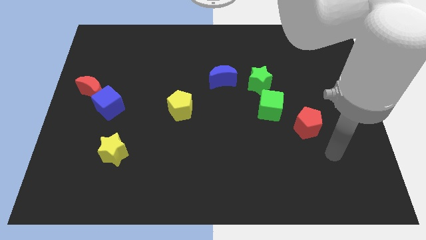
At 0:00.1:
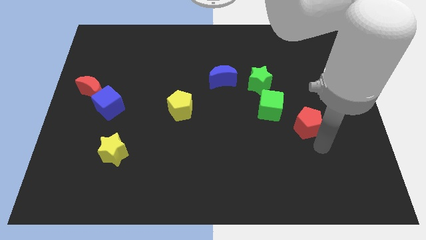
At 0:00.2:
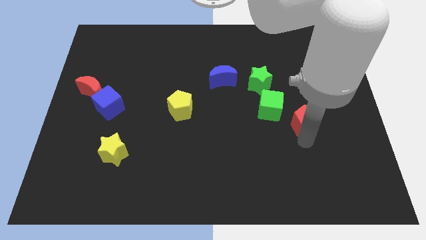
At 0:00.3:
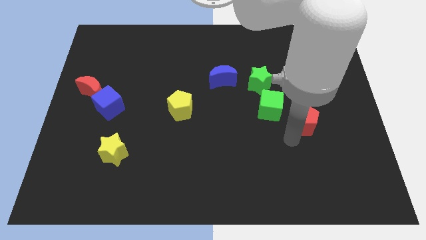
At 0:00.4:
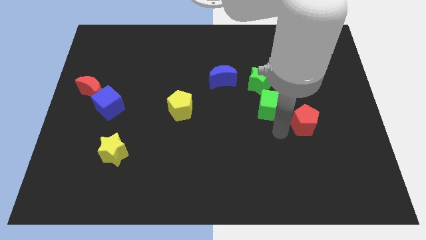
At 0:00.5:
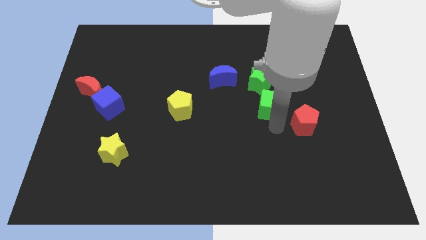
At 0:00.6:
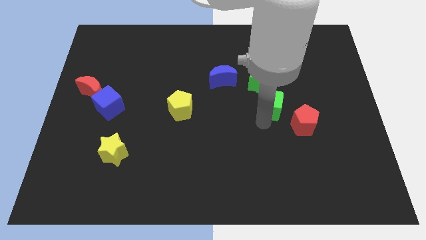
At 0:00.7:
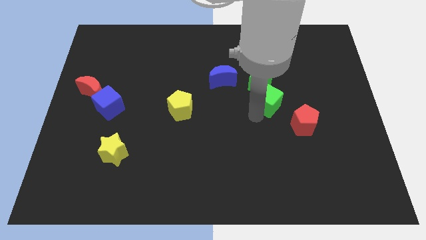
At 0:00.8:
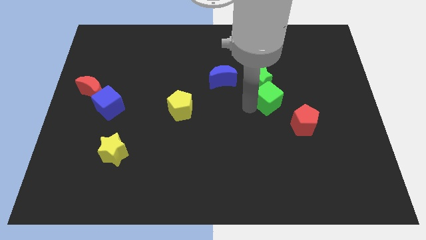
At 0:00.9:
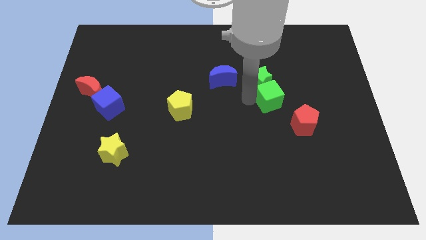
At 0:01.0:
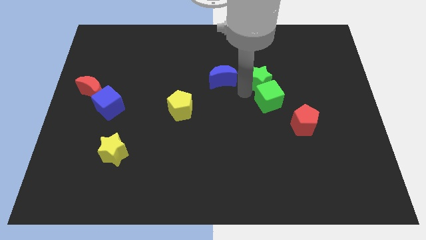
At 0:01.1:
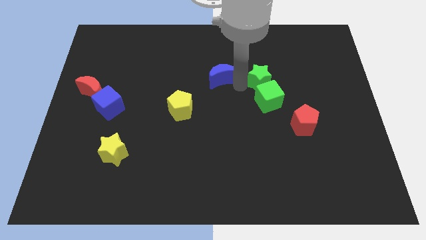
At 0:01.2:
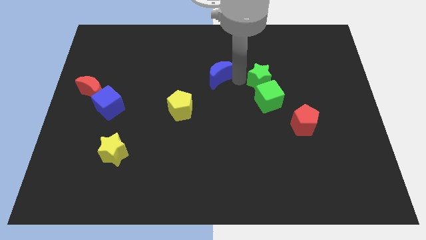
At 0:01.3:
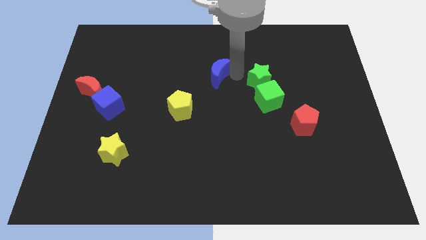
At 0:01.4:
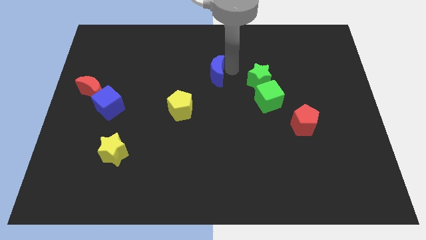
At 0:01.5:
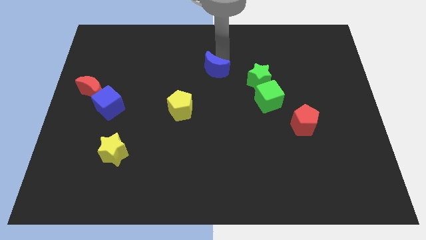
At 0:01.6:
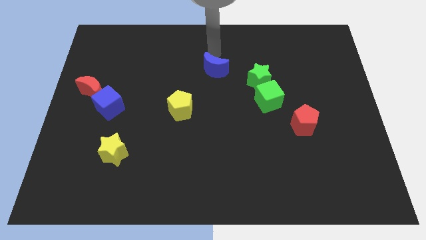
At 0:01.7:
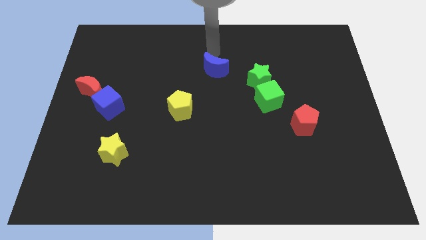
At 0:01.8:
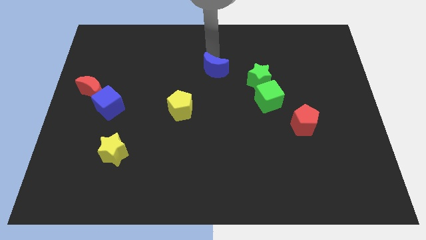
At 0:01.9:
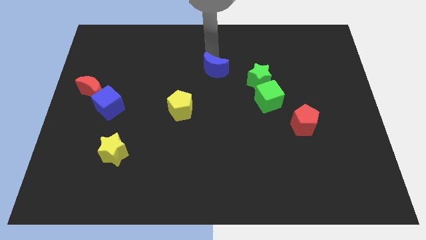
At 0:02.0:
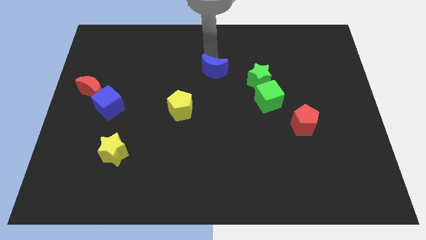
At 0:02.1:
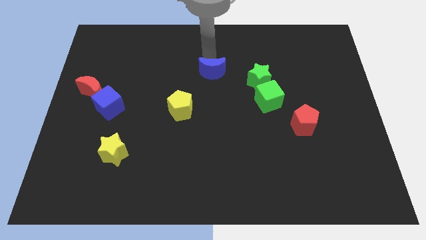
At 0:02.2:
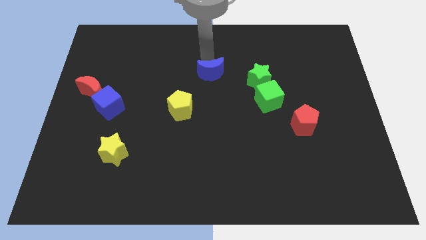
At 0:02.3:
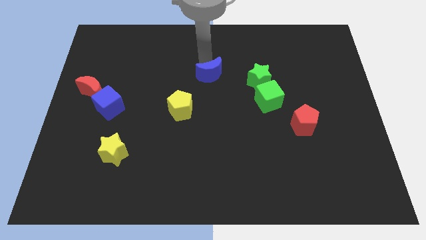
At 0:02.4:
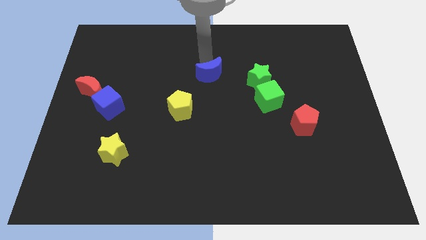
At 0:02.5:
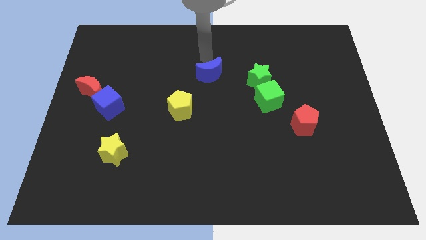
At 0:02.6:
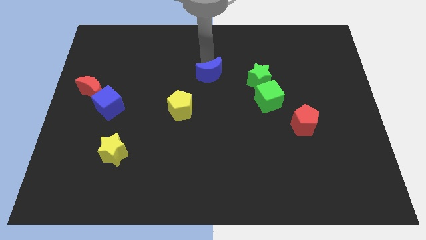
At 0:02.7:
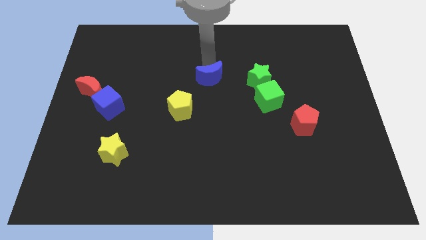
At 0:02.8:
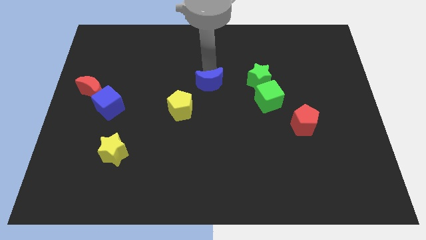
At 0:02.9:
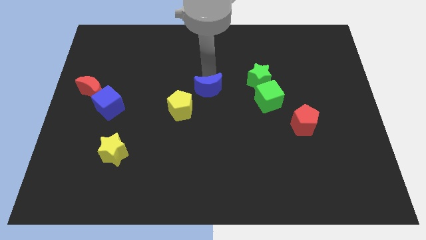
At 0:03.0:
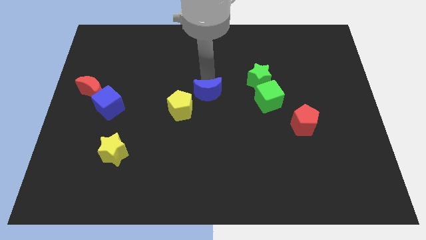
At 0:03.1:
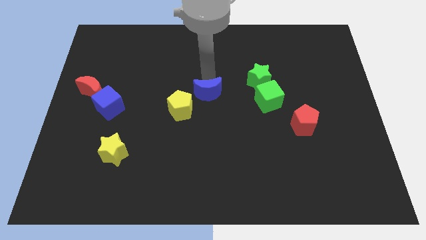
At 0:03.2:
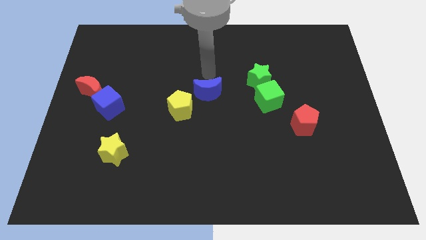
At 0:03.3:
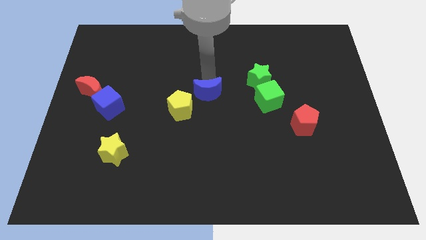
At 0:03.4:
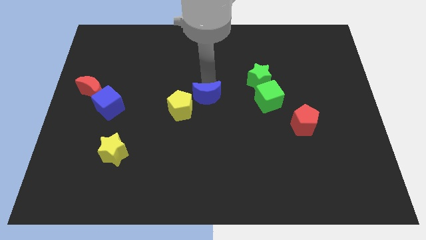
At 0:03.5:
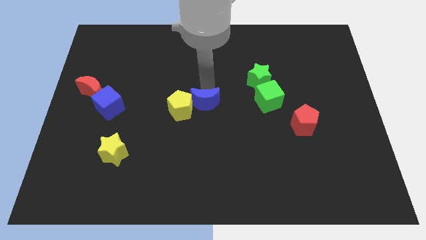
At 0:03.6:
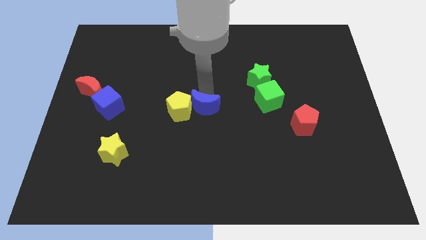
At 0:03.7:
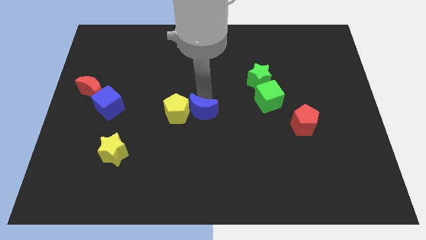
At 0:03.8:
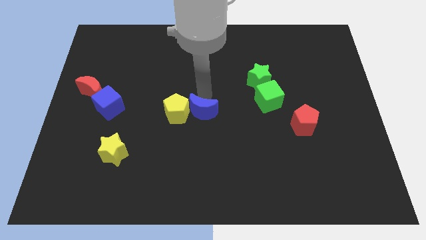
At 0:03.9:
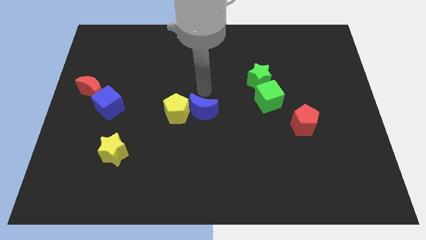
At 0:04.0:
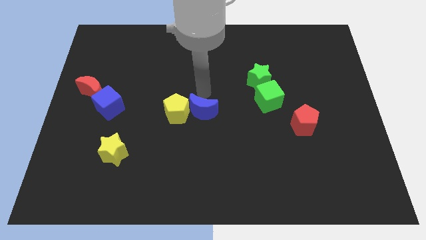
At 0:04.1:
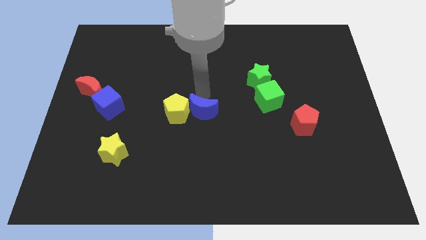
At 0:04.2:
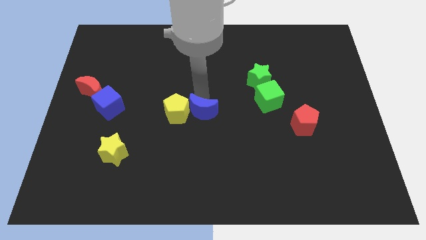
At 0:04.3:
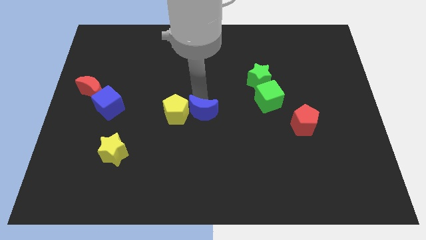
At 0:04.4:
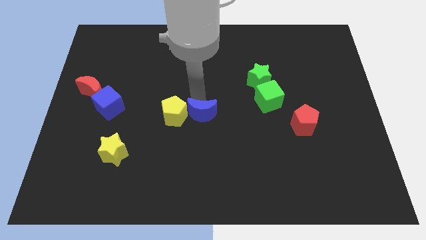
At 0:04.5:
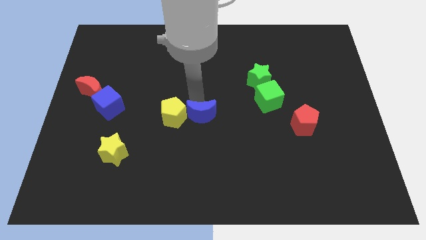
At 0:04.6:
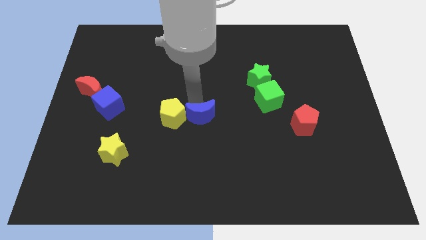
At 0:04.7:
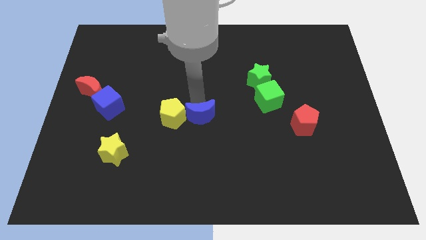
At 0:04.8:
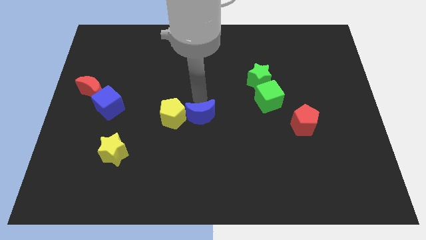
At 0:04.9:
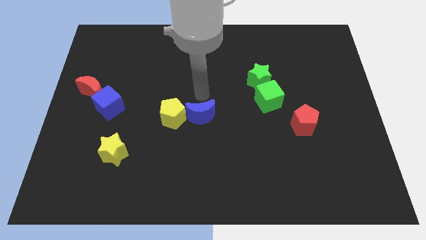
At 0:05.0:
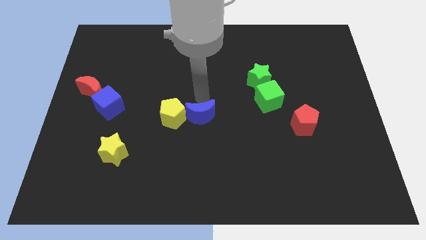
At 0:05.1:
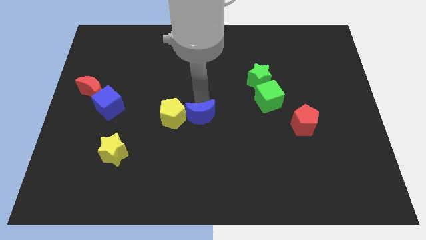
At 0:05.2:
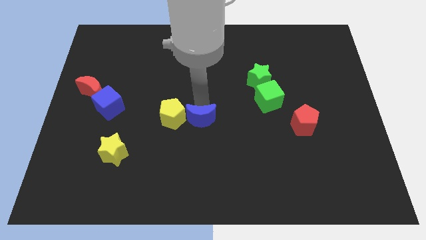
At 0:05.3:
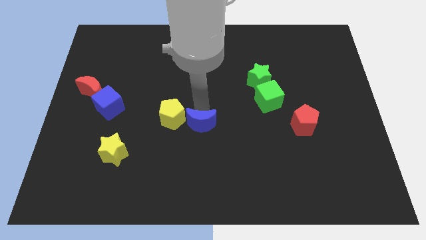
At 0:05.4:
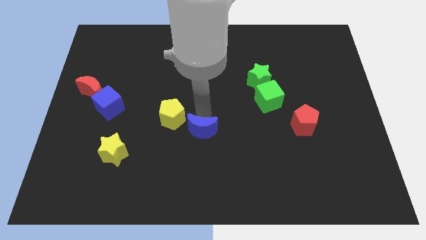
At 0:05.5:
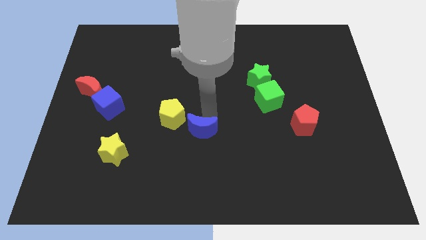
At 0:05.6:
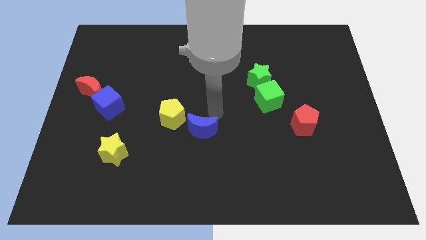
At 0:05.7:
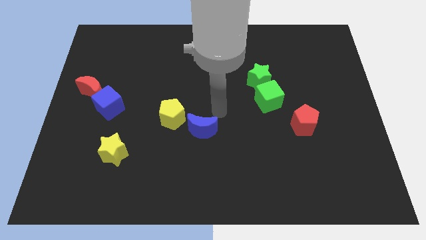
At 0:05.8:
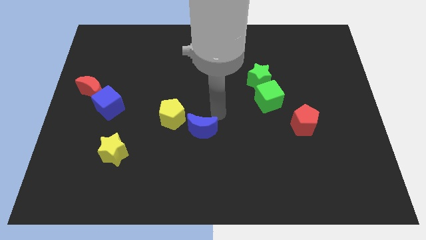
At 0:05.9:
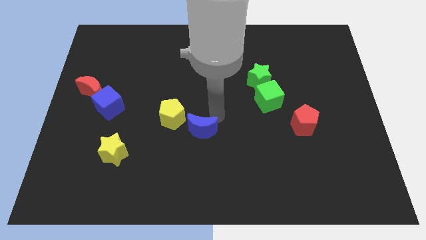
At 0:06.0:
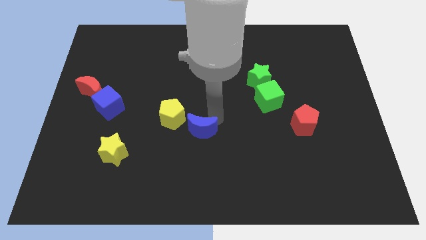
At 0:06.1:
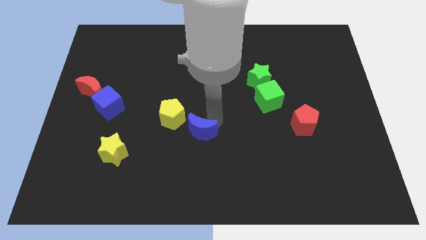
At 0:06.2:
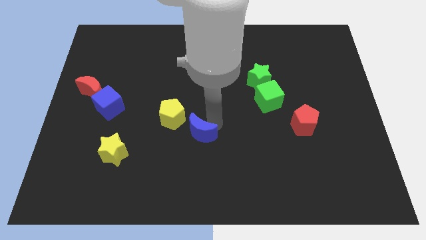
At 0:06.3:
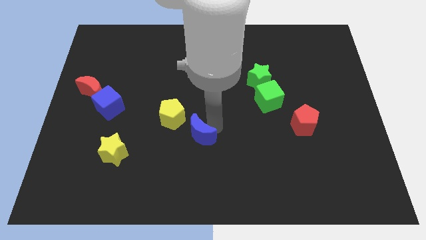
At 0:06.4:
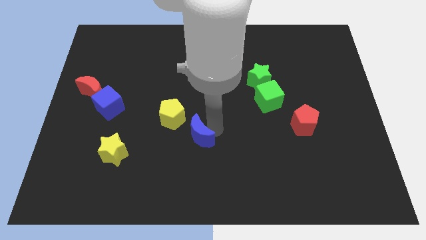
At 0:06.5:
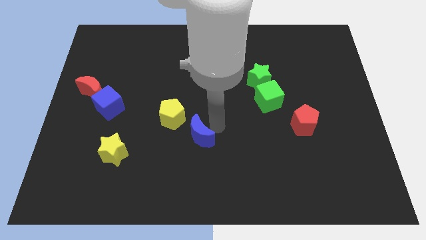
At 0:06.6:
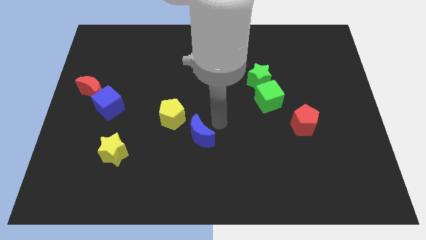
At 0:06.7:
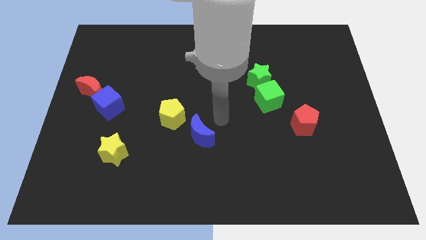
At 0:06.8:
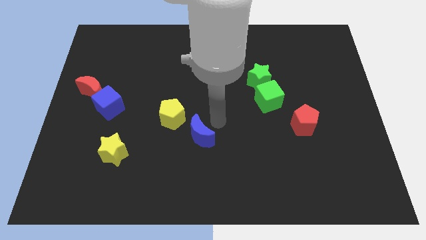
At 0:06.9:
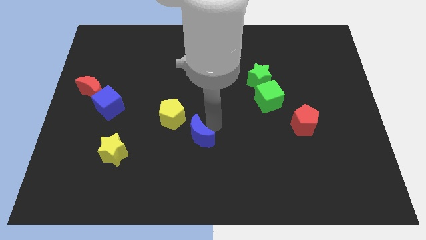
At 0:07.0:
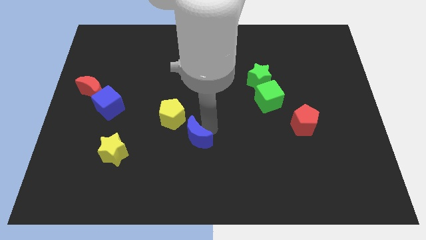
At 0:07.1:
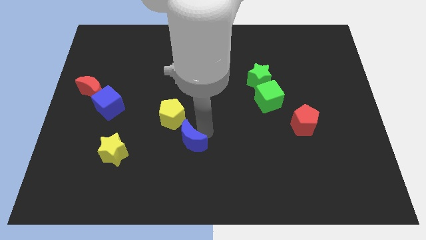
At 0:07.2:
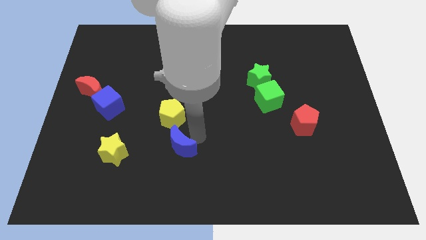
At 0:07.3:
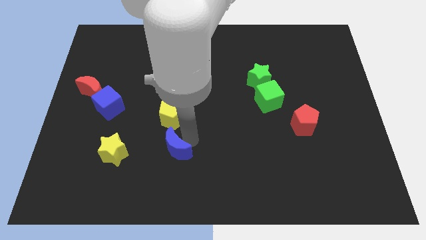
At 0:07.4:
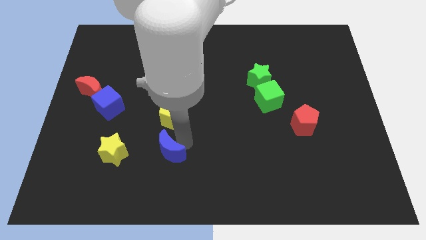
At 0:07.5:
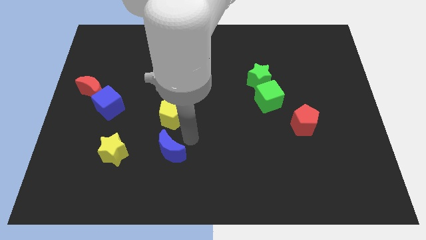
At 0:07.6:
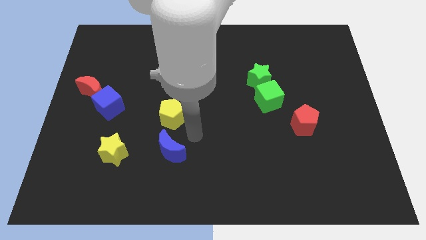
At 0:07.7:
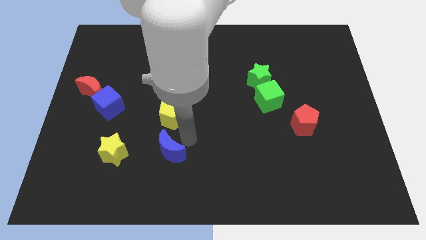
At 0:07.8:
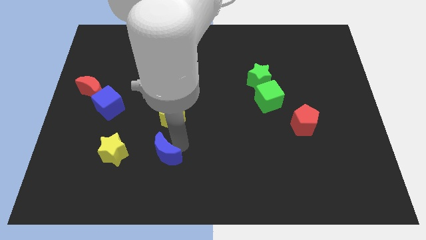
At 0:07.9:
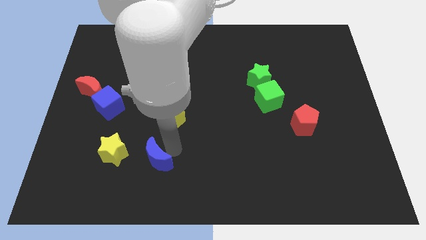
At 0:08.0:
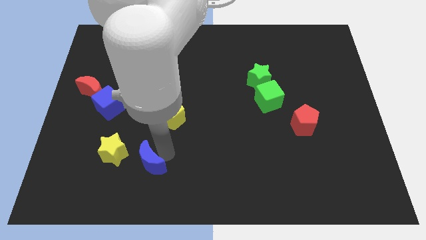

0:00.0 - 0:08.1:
put the blue moon to the bottom right of the yellow star
